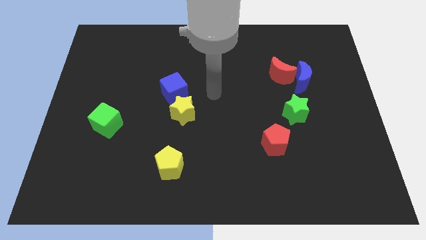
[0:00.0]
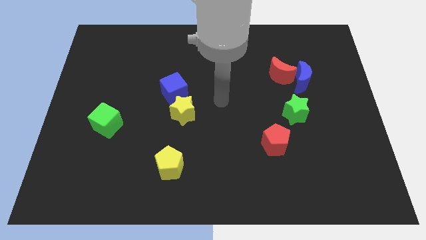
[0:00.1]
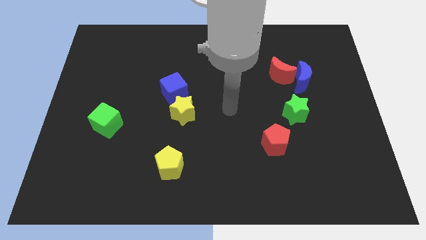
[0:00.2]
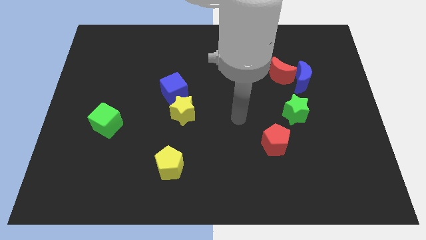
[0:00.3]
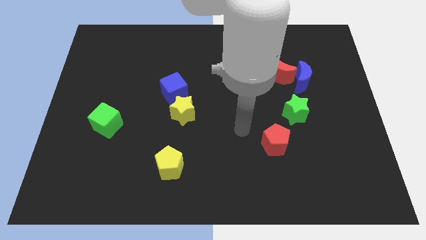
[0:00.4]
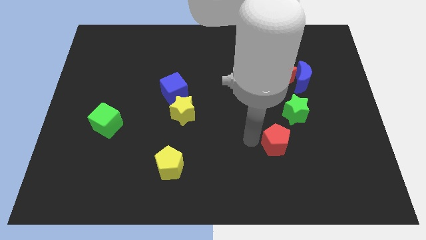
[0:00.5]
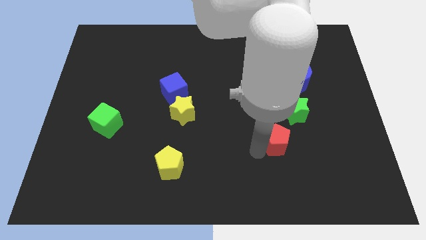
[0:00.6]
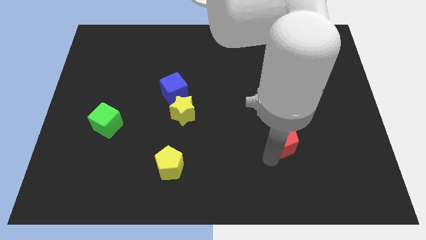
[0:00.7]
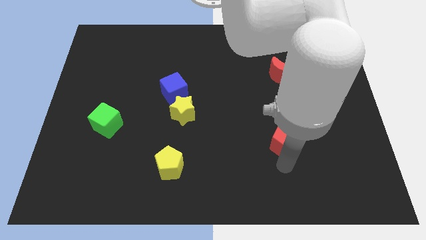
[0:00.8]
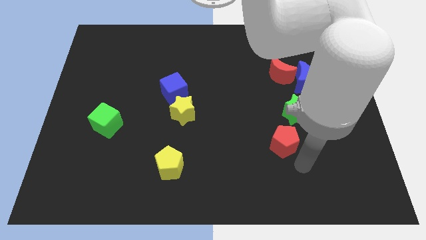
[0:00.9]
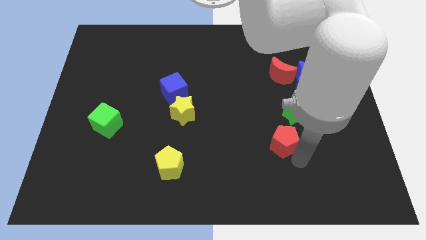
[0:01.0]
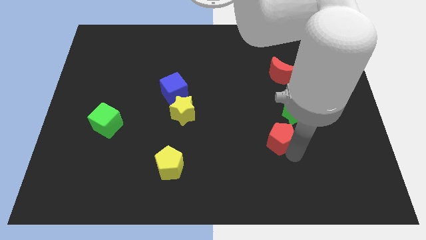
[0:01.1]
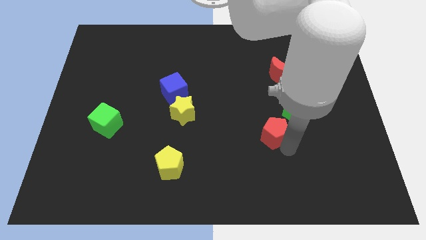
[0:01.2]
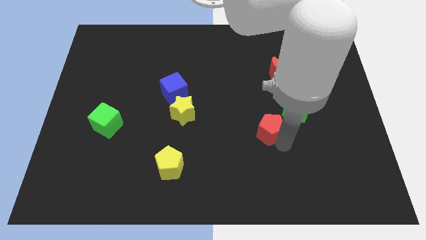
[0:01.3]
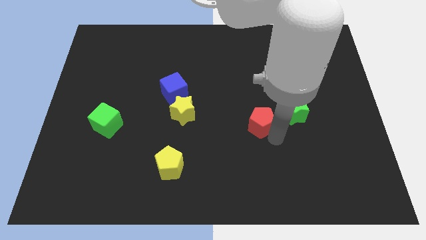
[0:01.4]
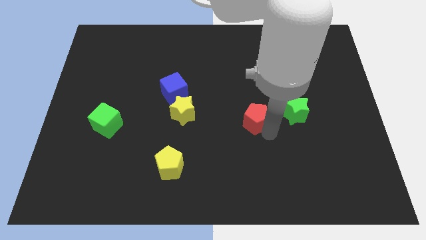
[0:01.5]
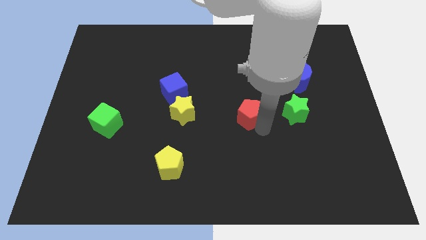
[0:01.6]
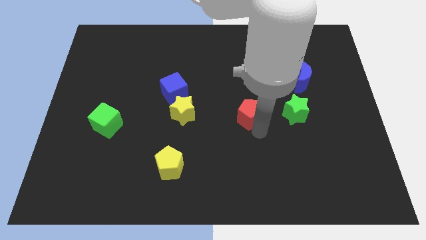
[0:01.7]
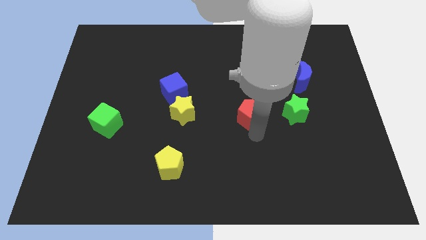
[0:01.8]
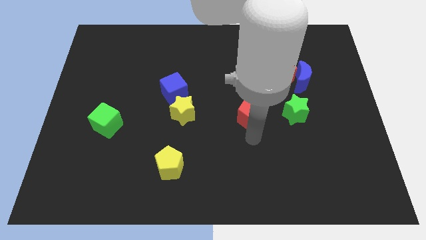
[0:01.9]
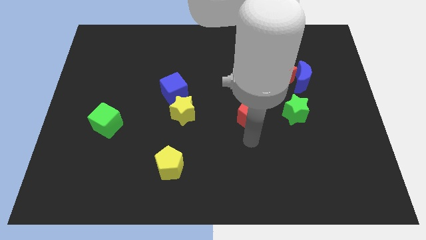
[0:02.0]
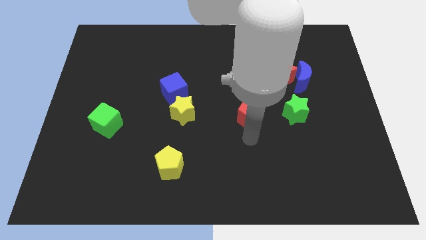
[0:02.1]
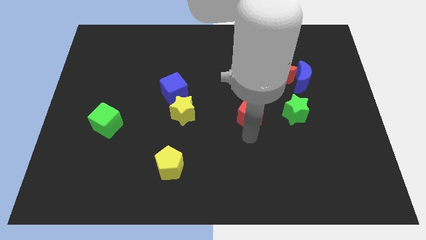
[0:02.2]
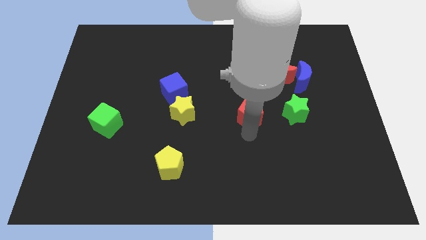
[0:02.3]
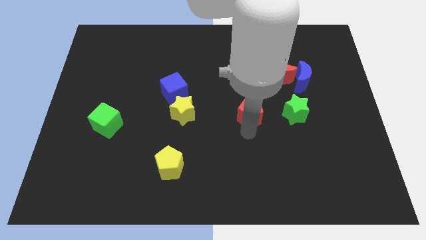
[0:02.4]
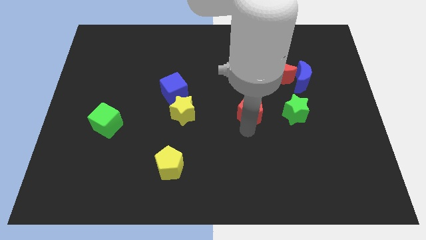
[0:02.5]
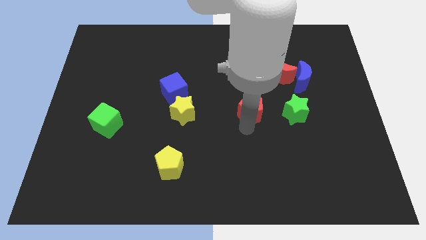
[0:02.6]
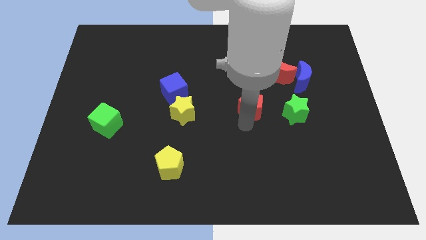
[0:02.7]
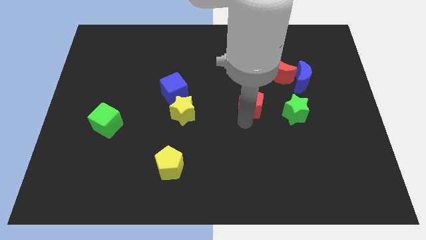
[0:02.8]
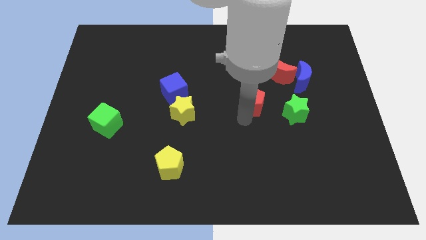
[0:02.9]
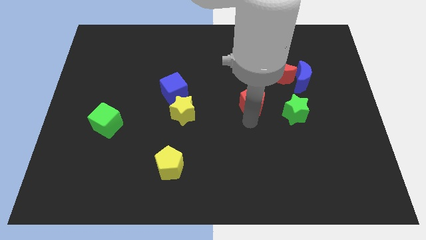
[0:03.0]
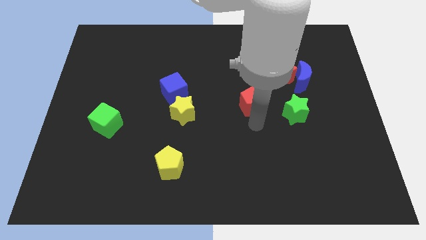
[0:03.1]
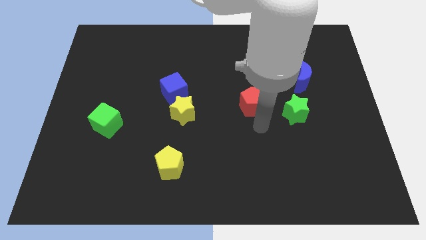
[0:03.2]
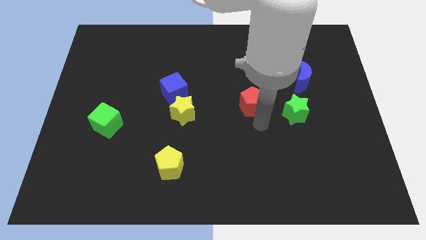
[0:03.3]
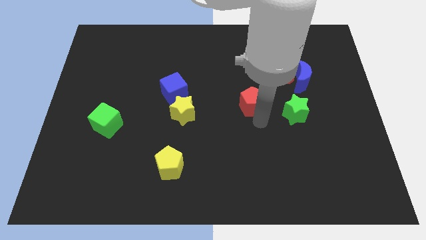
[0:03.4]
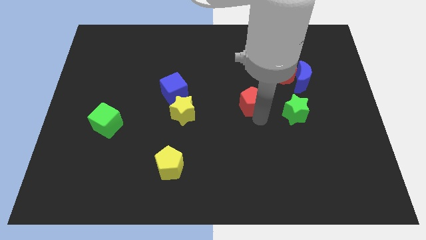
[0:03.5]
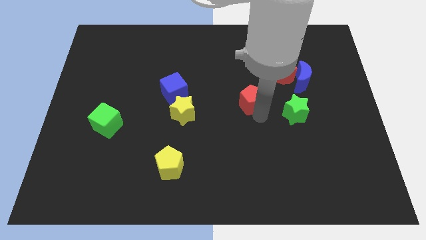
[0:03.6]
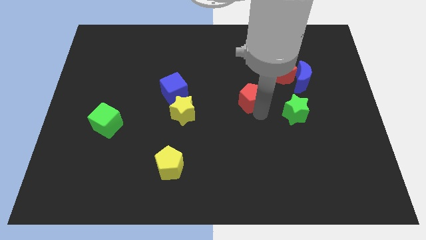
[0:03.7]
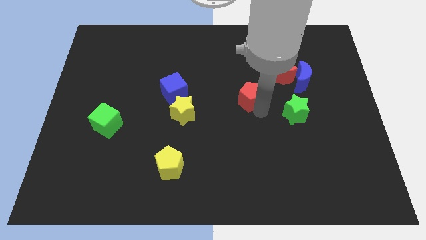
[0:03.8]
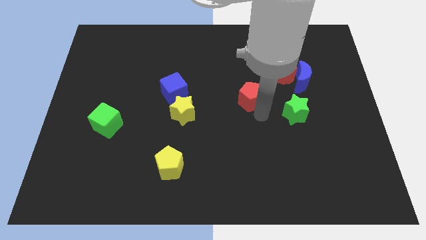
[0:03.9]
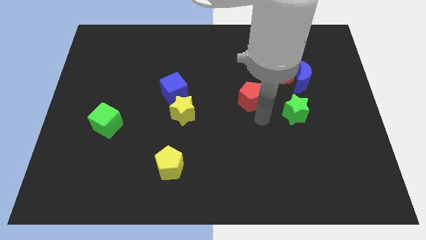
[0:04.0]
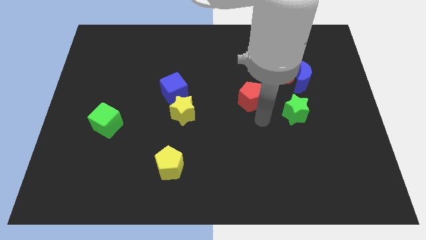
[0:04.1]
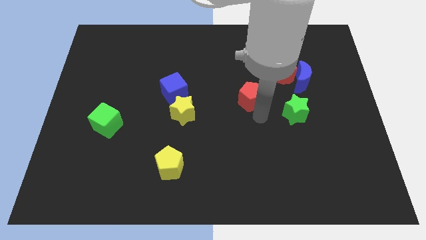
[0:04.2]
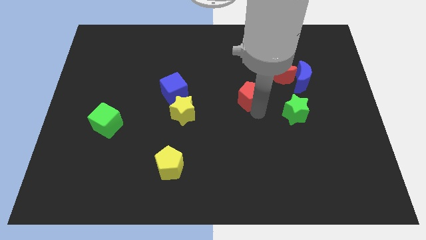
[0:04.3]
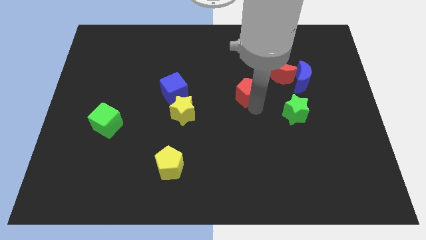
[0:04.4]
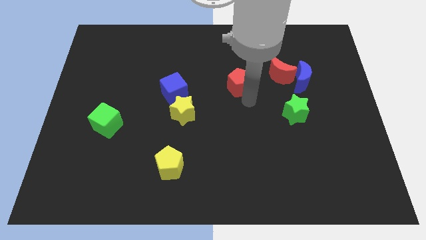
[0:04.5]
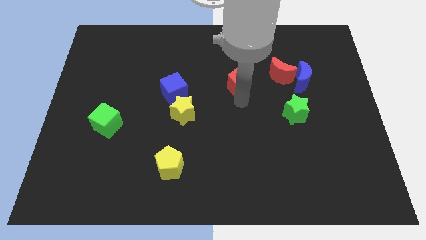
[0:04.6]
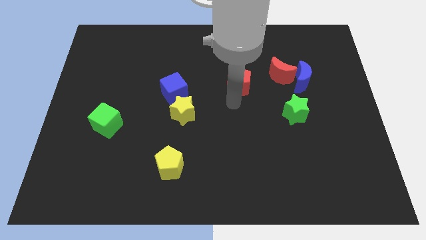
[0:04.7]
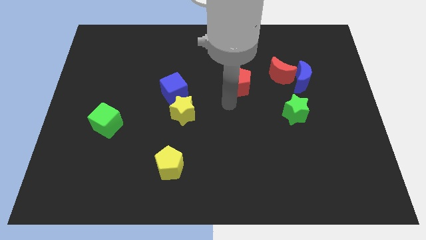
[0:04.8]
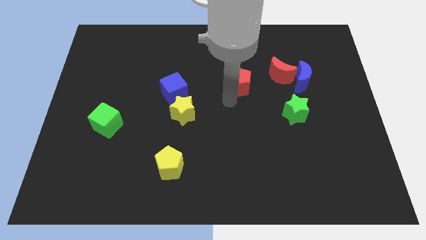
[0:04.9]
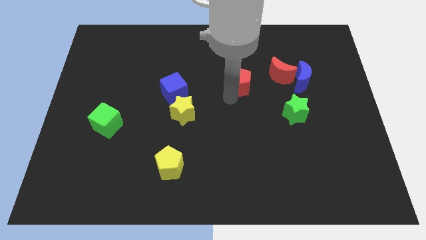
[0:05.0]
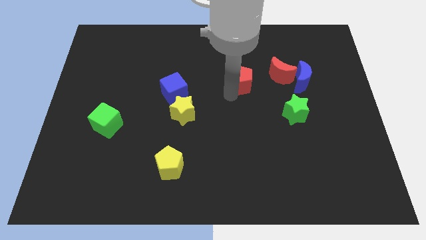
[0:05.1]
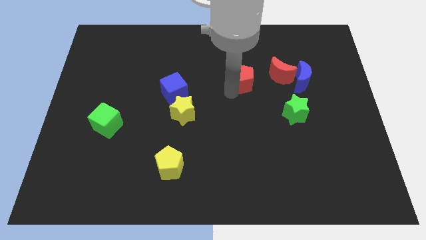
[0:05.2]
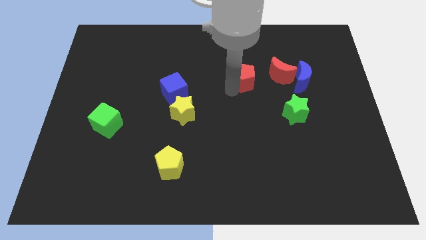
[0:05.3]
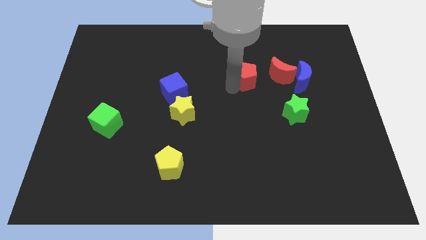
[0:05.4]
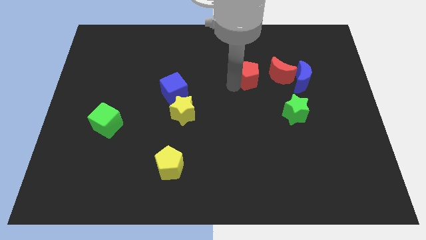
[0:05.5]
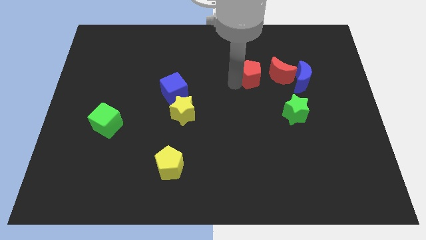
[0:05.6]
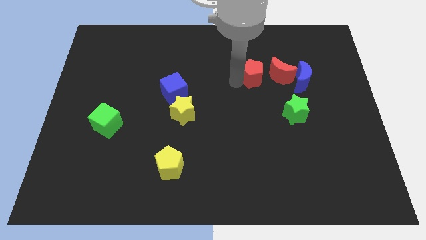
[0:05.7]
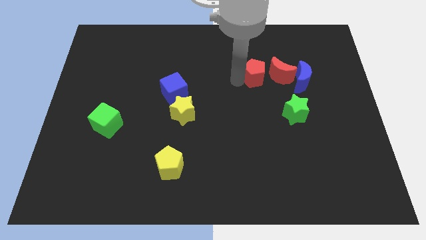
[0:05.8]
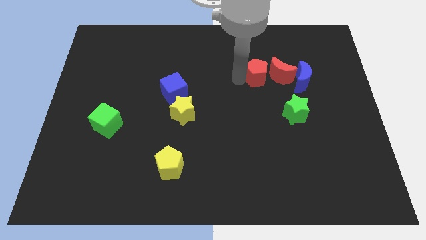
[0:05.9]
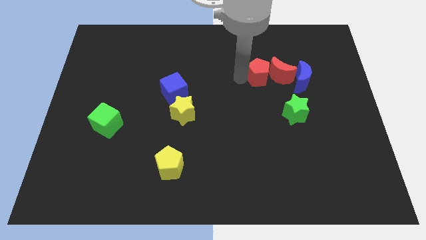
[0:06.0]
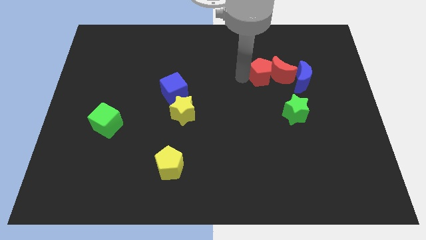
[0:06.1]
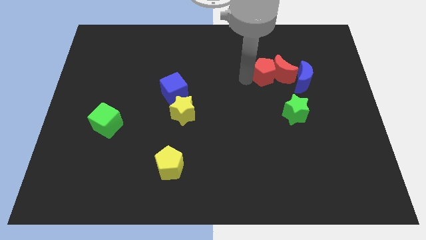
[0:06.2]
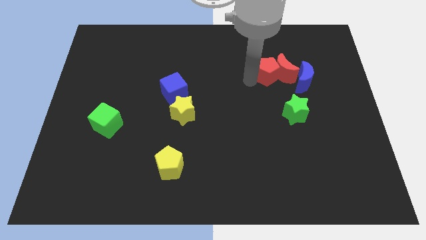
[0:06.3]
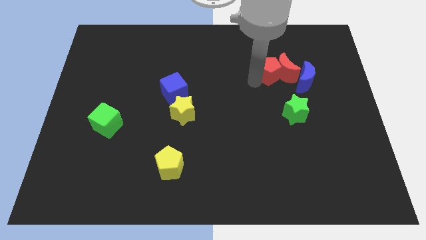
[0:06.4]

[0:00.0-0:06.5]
push the red pentagon above the green star
